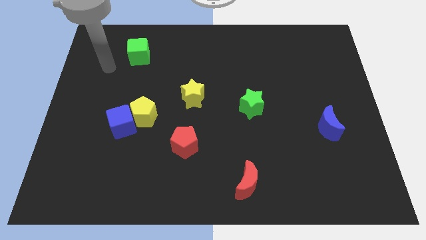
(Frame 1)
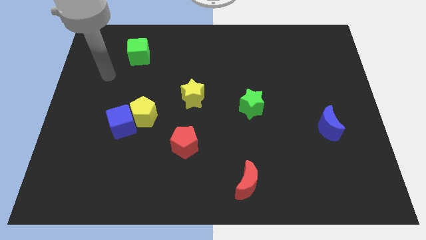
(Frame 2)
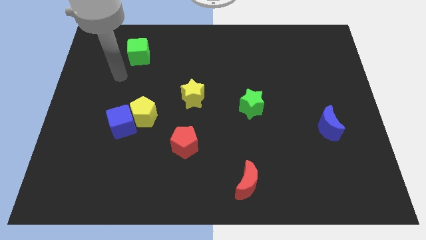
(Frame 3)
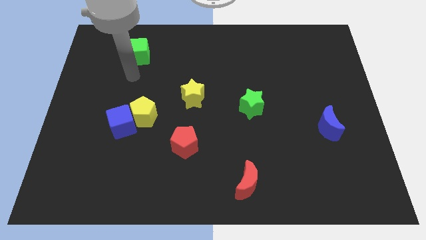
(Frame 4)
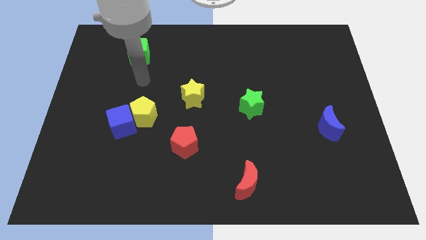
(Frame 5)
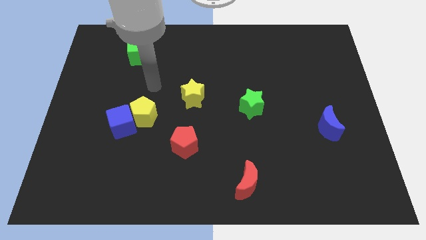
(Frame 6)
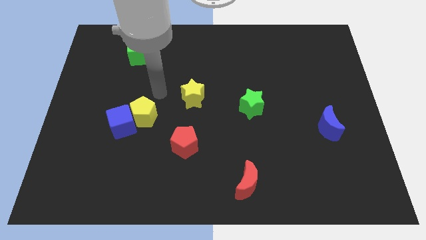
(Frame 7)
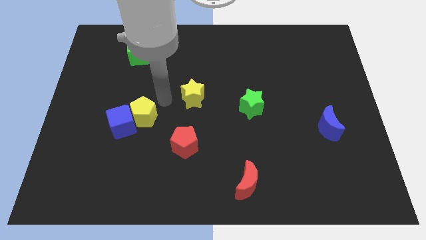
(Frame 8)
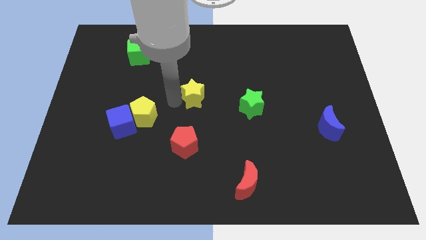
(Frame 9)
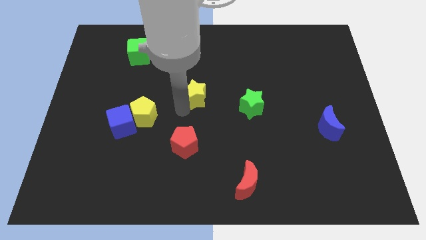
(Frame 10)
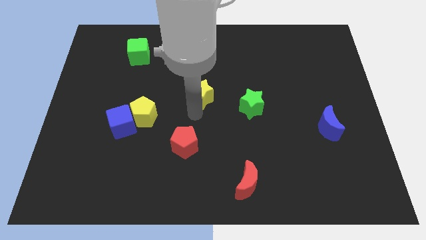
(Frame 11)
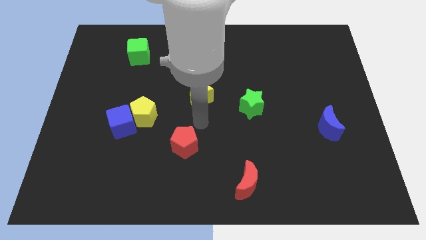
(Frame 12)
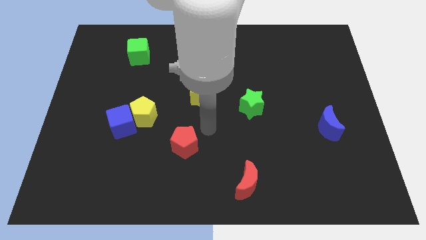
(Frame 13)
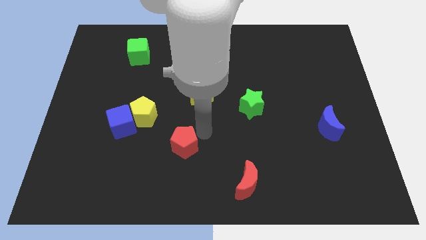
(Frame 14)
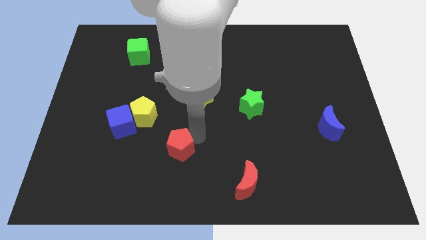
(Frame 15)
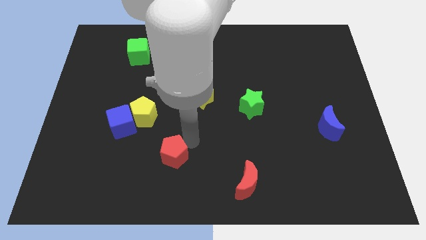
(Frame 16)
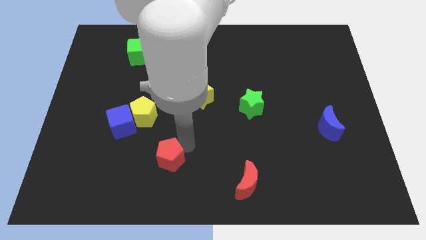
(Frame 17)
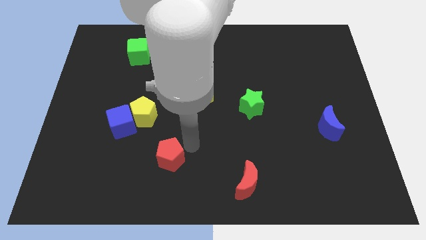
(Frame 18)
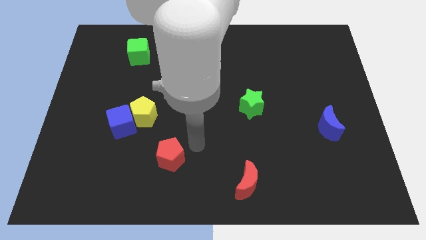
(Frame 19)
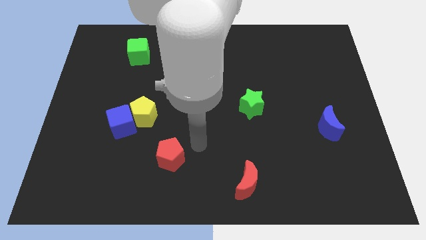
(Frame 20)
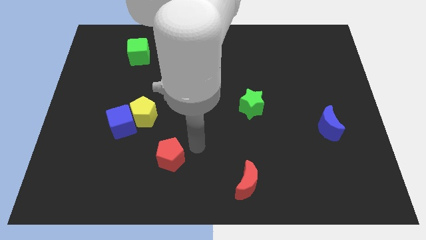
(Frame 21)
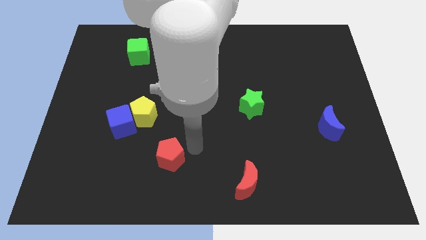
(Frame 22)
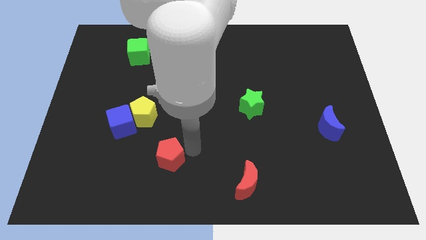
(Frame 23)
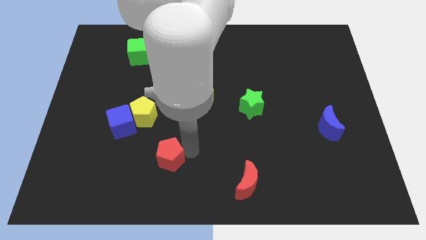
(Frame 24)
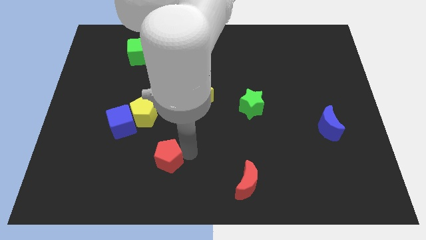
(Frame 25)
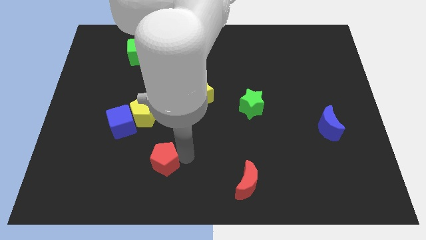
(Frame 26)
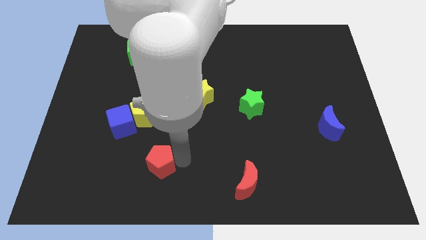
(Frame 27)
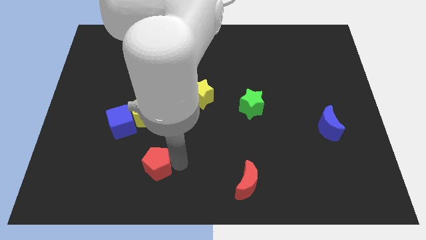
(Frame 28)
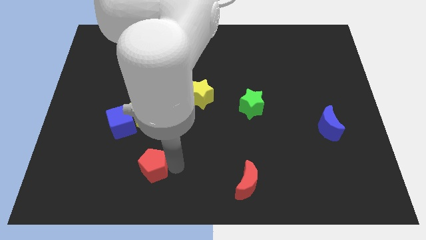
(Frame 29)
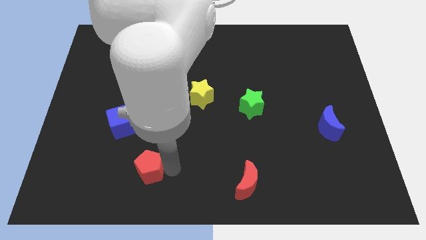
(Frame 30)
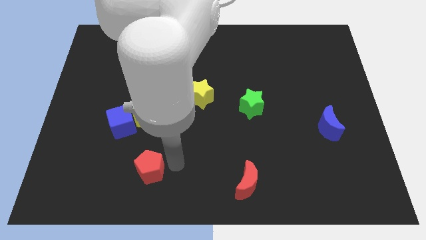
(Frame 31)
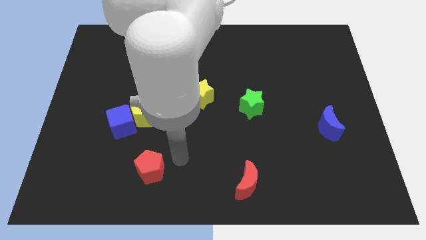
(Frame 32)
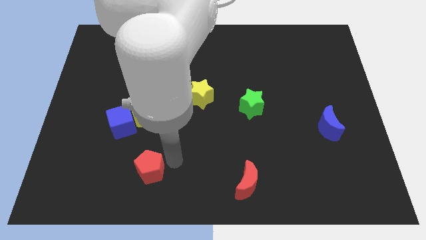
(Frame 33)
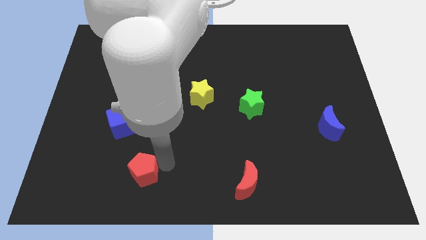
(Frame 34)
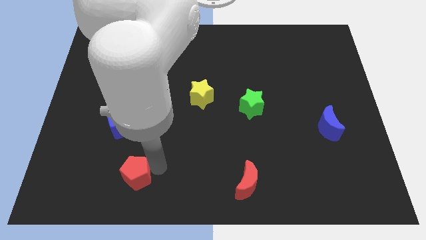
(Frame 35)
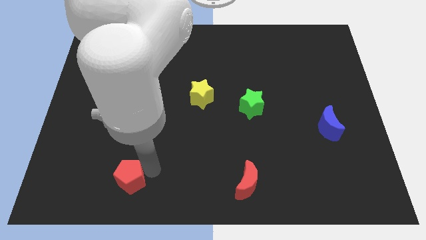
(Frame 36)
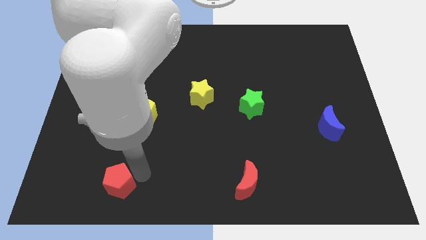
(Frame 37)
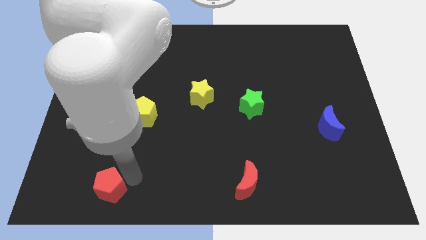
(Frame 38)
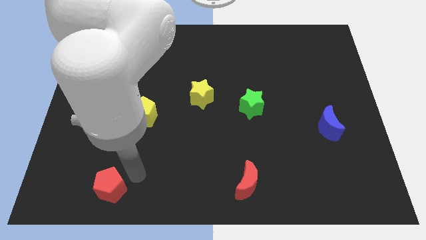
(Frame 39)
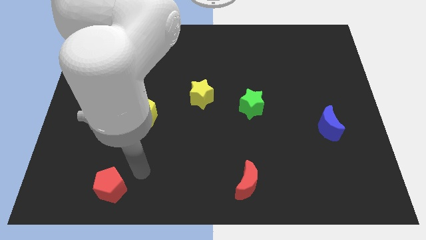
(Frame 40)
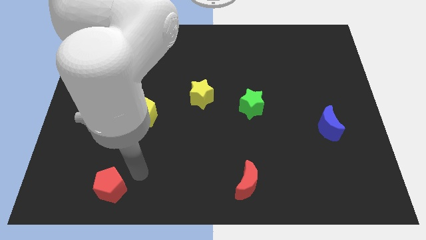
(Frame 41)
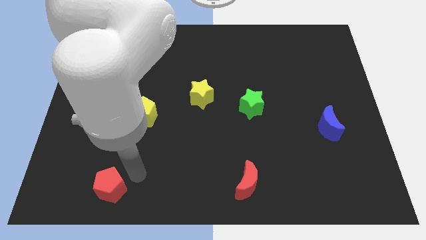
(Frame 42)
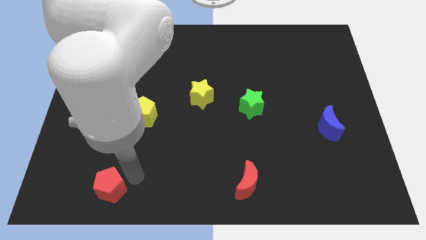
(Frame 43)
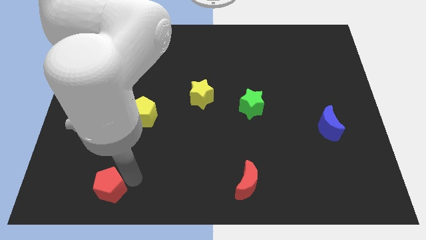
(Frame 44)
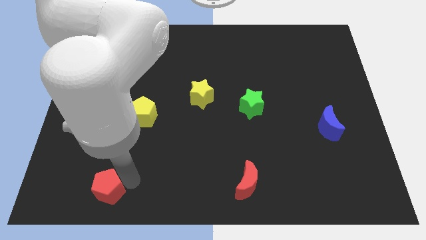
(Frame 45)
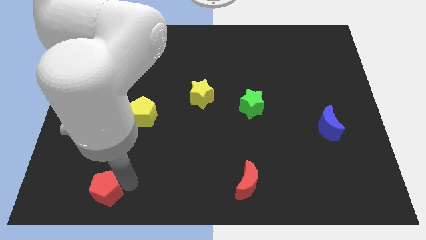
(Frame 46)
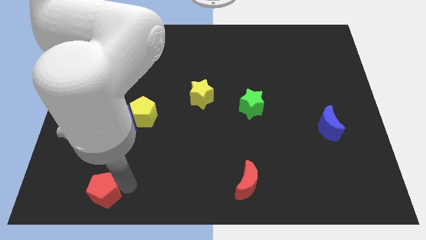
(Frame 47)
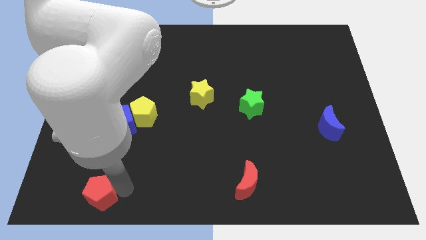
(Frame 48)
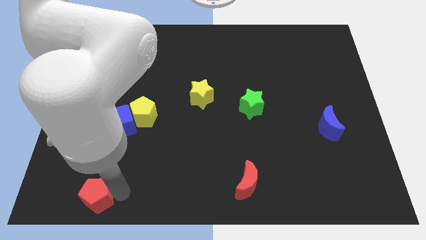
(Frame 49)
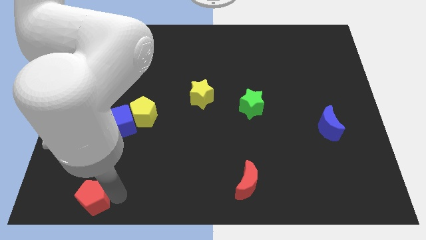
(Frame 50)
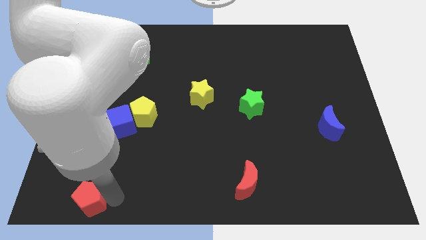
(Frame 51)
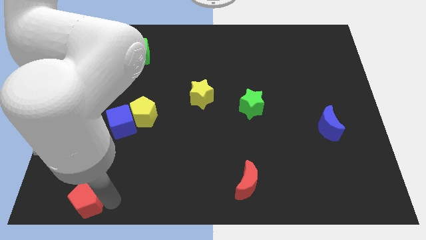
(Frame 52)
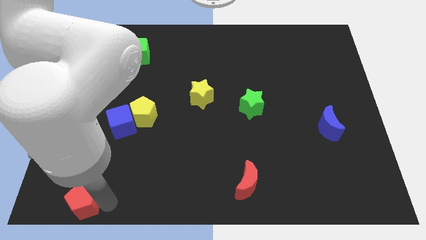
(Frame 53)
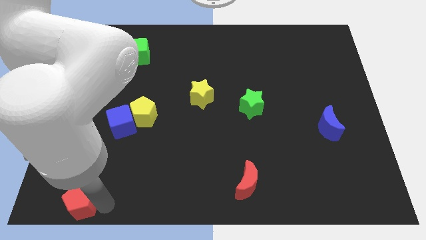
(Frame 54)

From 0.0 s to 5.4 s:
push the red pentagon to the bottom left of the board
